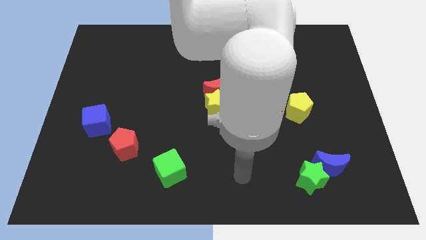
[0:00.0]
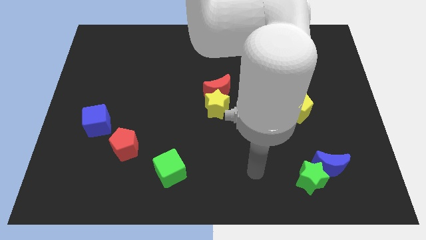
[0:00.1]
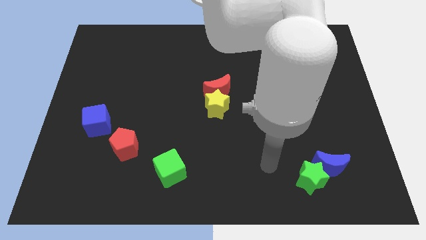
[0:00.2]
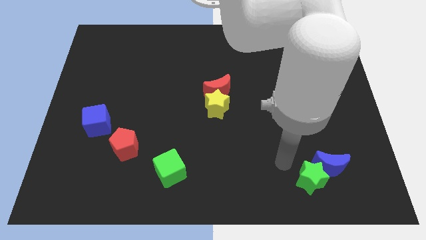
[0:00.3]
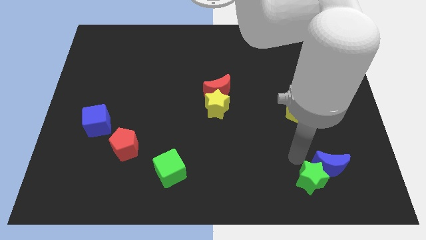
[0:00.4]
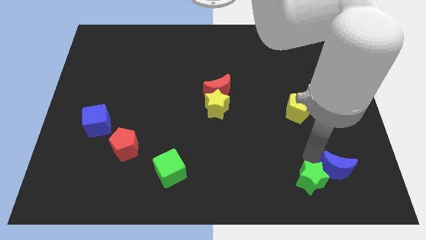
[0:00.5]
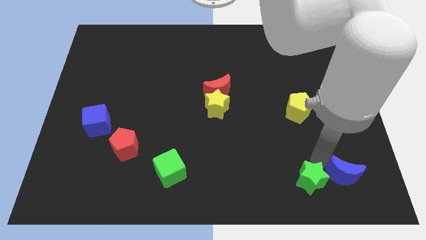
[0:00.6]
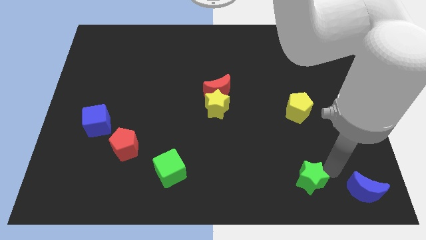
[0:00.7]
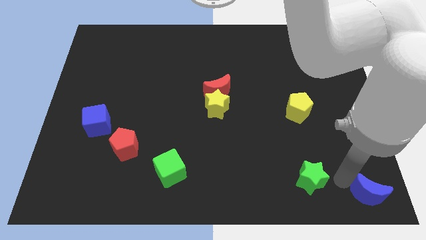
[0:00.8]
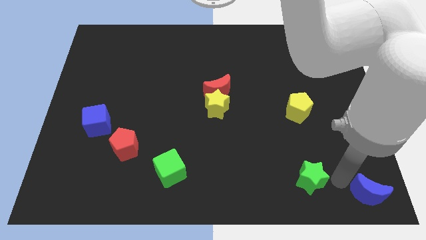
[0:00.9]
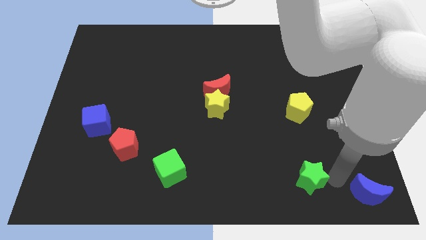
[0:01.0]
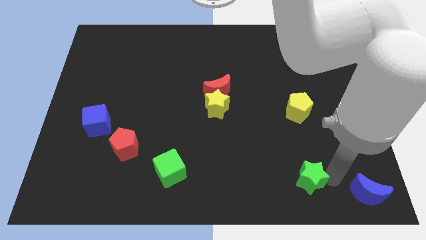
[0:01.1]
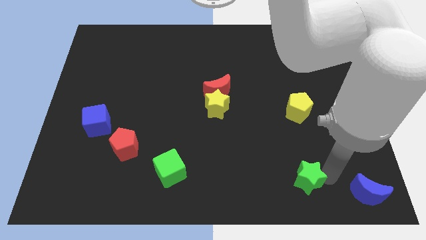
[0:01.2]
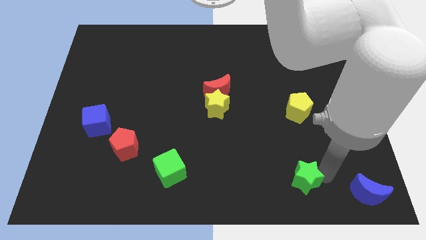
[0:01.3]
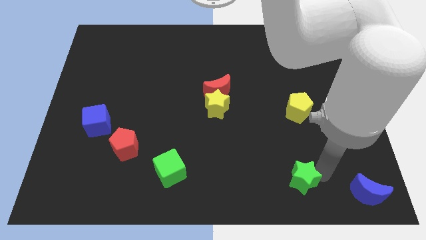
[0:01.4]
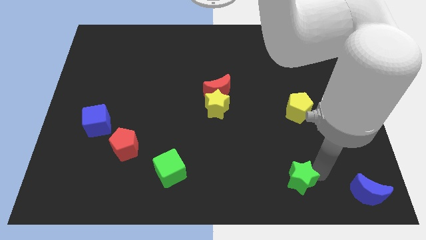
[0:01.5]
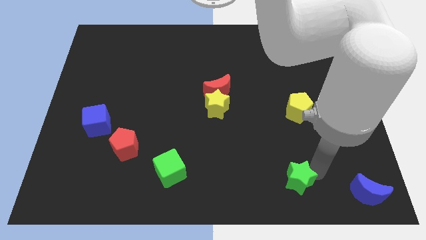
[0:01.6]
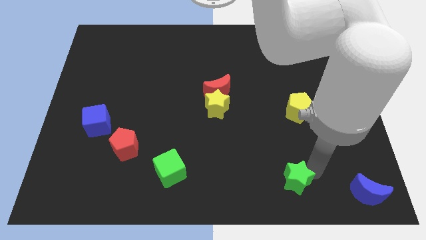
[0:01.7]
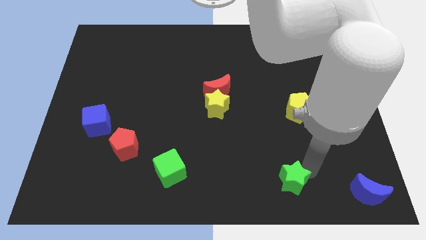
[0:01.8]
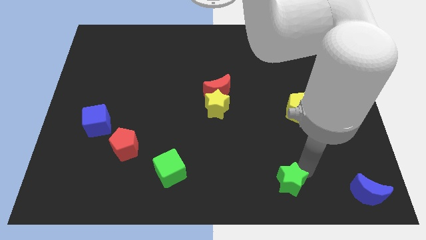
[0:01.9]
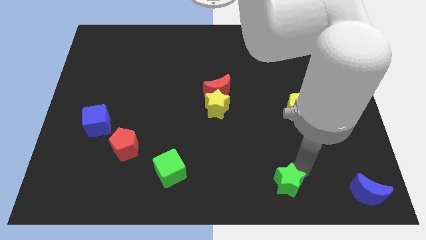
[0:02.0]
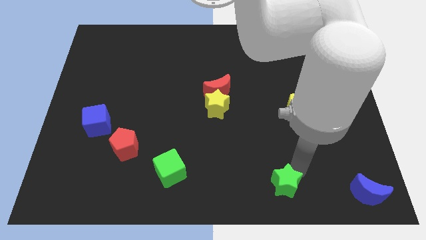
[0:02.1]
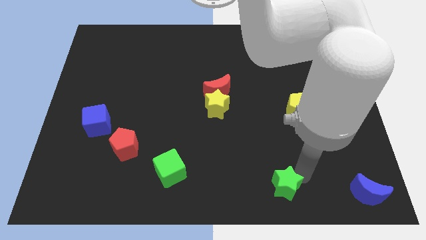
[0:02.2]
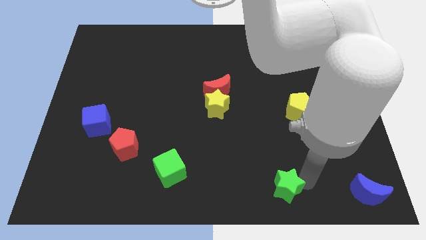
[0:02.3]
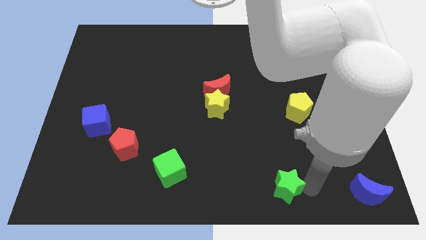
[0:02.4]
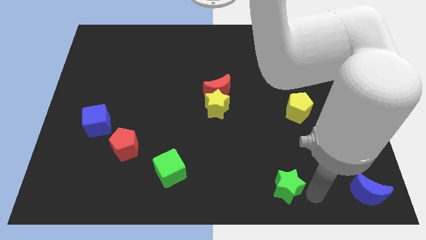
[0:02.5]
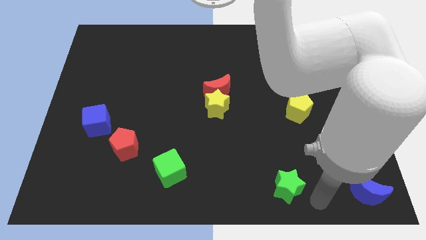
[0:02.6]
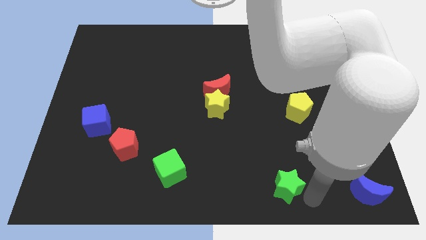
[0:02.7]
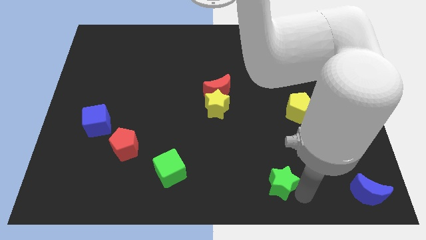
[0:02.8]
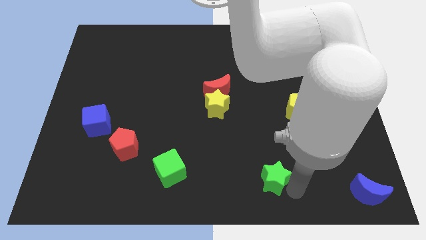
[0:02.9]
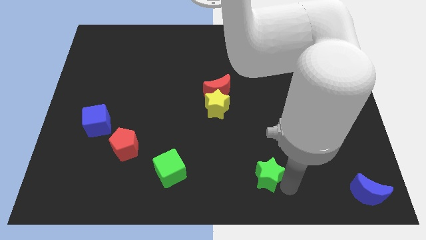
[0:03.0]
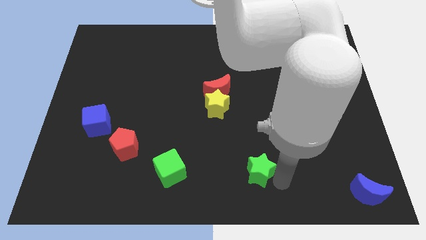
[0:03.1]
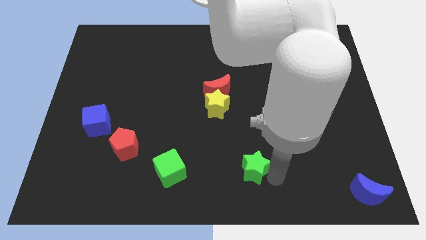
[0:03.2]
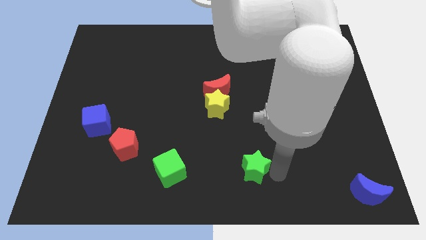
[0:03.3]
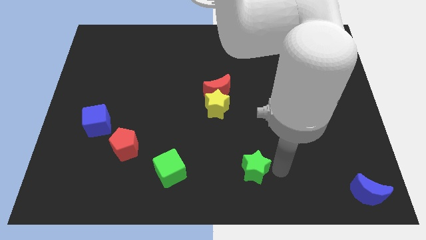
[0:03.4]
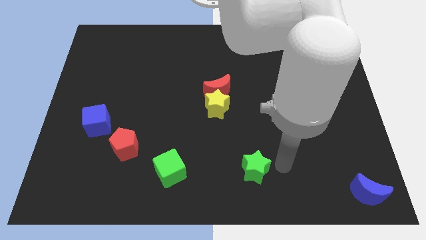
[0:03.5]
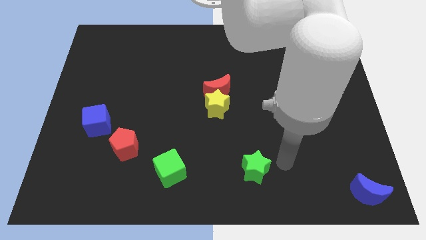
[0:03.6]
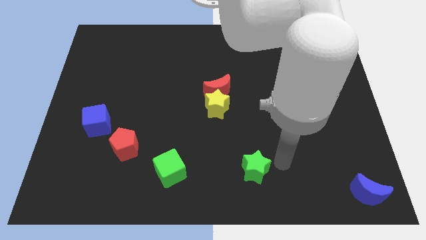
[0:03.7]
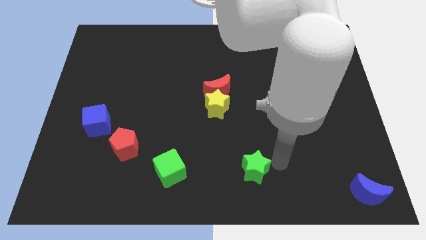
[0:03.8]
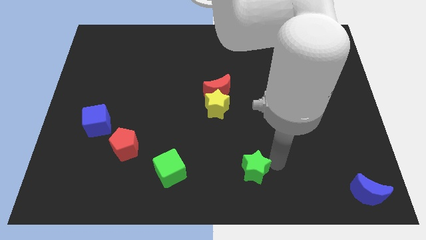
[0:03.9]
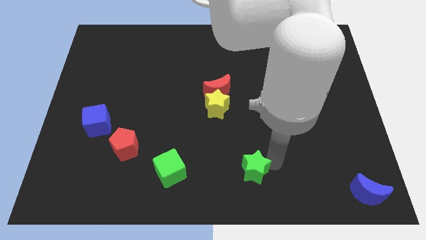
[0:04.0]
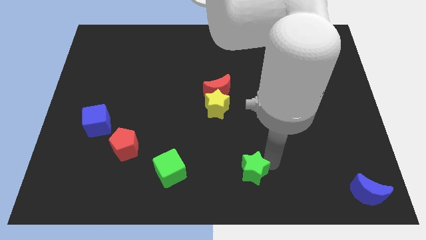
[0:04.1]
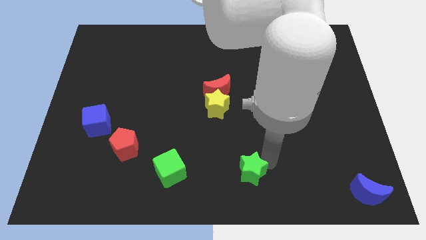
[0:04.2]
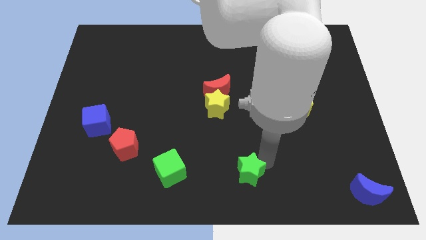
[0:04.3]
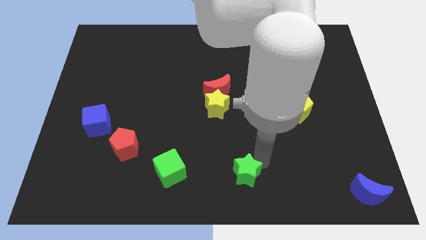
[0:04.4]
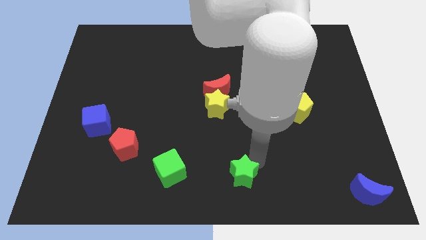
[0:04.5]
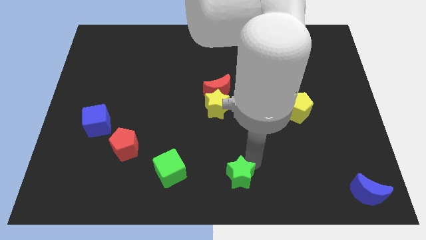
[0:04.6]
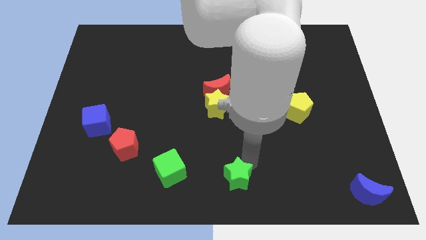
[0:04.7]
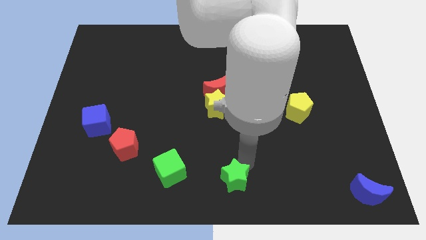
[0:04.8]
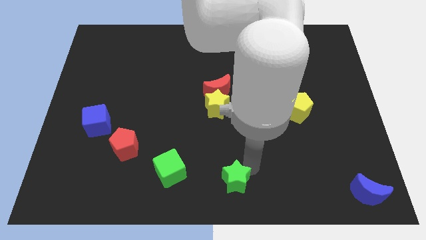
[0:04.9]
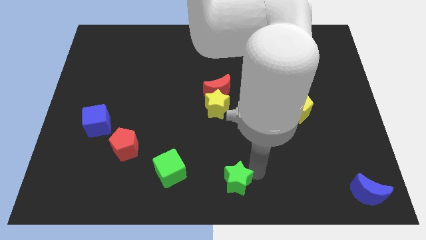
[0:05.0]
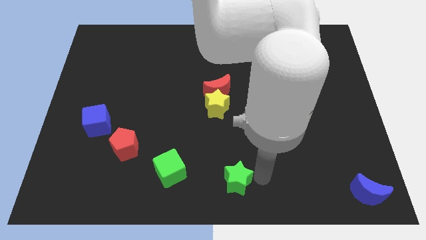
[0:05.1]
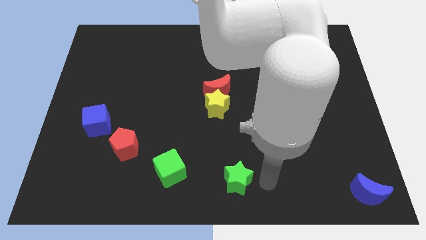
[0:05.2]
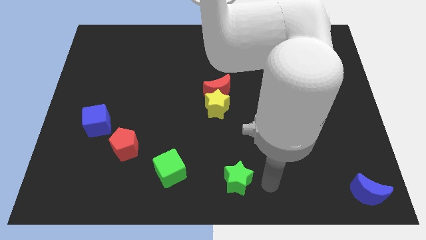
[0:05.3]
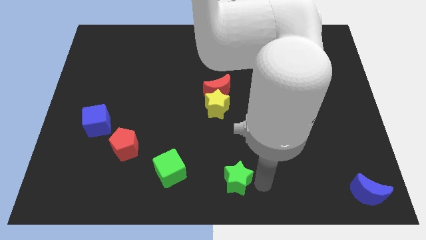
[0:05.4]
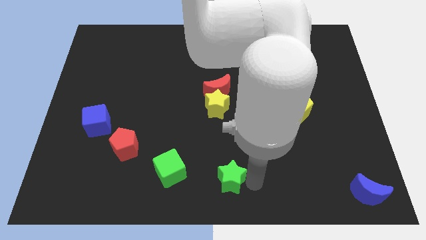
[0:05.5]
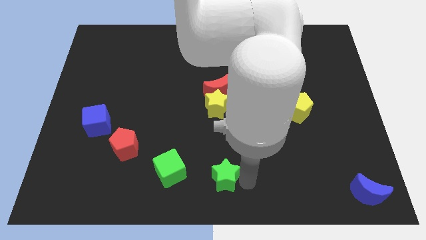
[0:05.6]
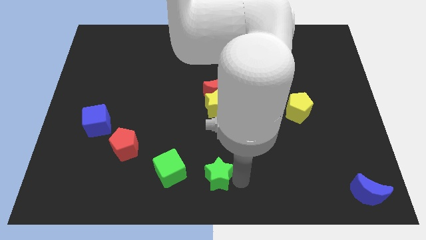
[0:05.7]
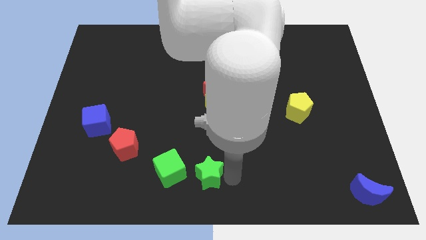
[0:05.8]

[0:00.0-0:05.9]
slide the green star left

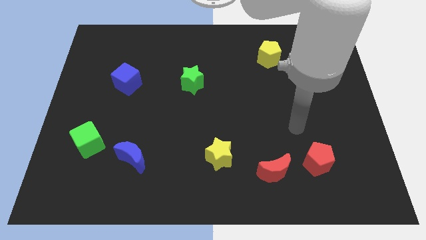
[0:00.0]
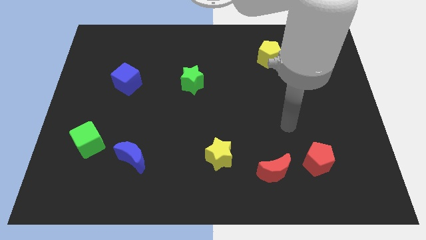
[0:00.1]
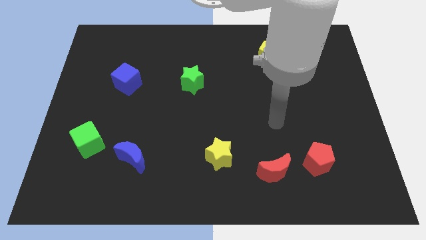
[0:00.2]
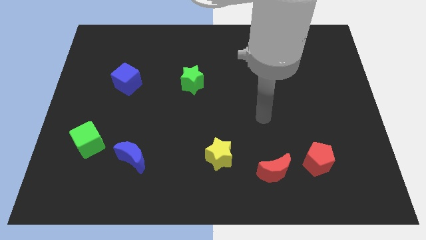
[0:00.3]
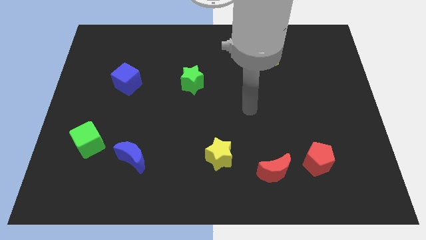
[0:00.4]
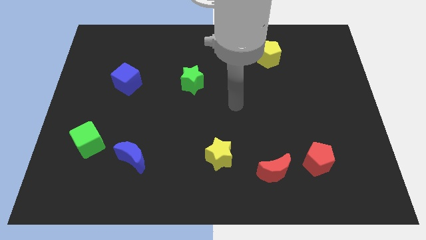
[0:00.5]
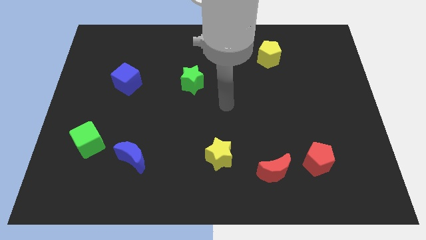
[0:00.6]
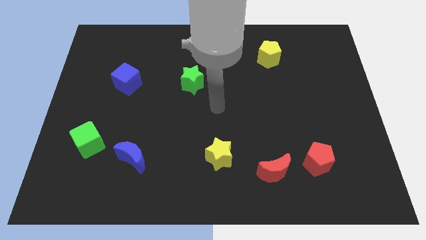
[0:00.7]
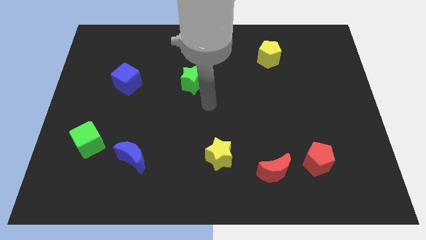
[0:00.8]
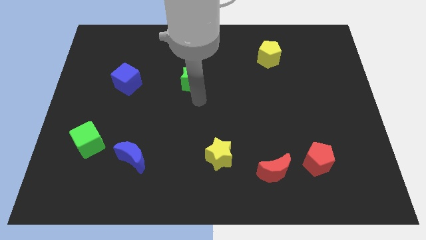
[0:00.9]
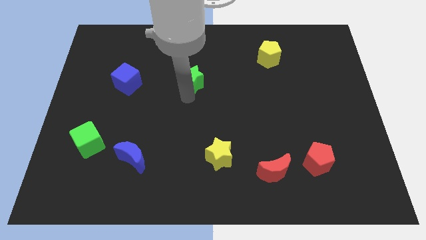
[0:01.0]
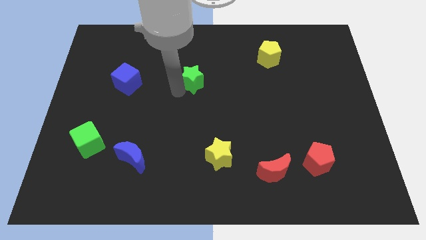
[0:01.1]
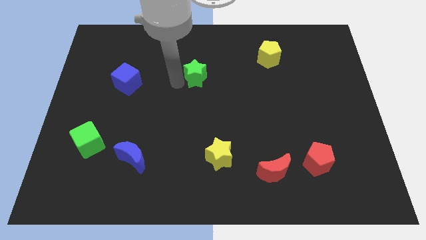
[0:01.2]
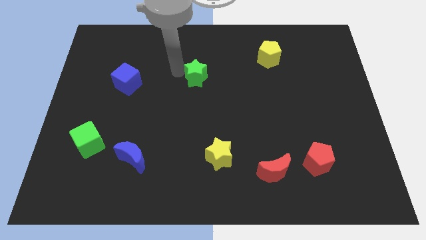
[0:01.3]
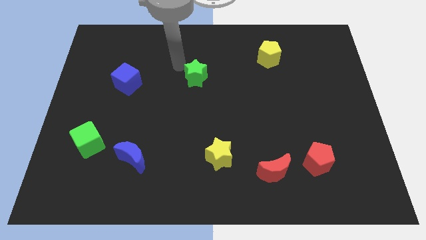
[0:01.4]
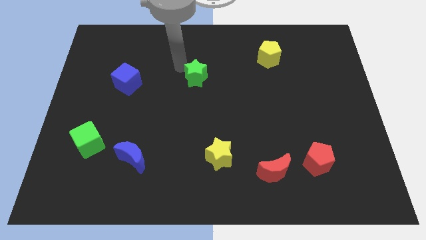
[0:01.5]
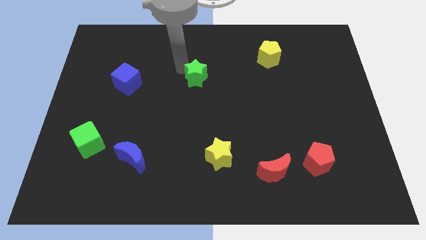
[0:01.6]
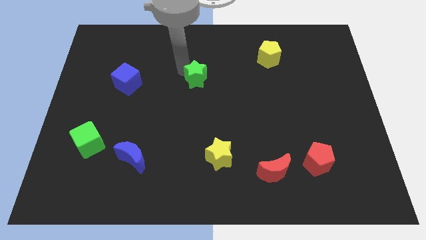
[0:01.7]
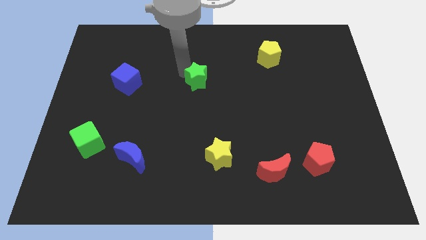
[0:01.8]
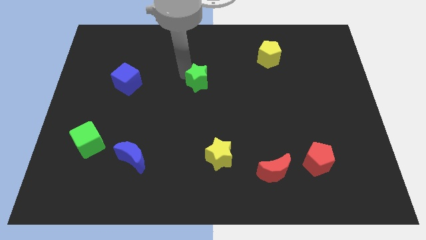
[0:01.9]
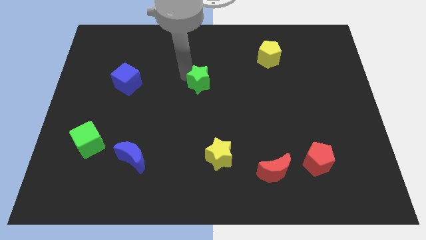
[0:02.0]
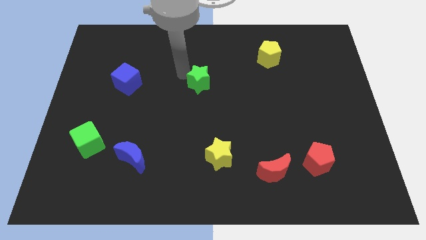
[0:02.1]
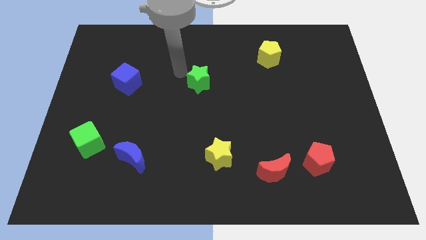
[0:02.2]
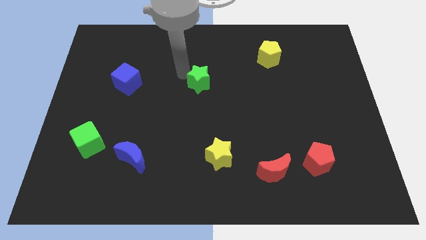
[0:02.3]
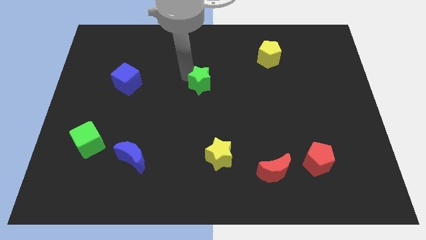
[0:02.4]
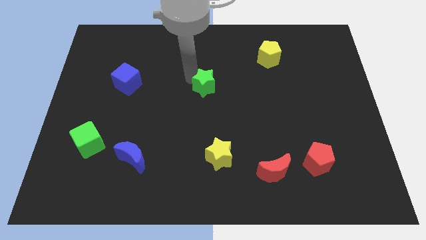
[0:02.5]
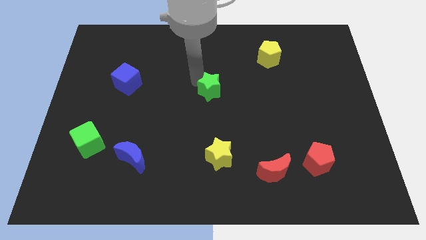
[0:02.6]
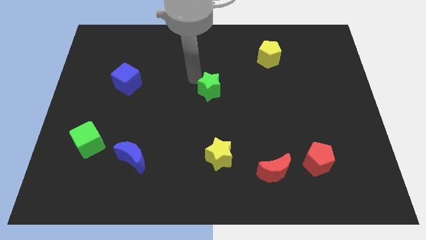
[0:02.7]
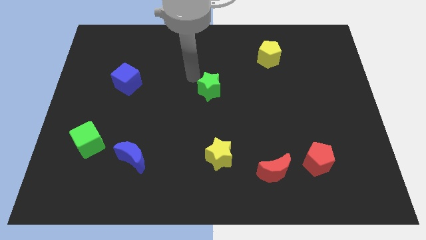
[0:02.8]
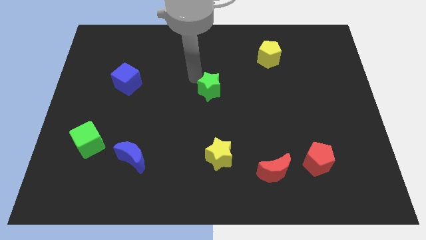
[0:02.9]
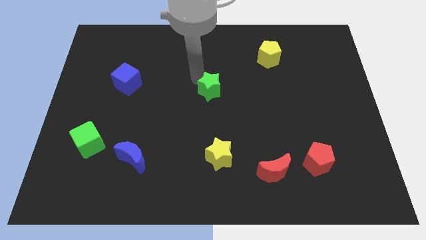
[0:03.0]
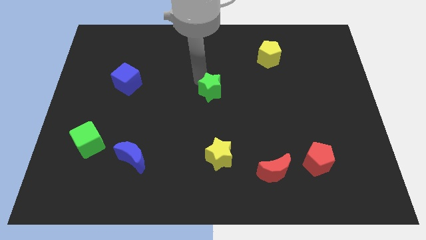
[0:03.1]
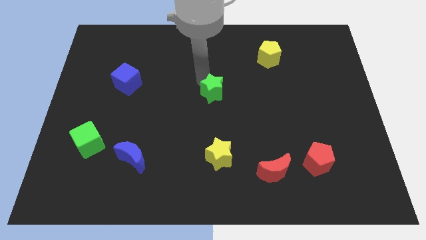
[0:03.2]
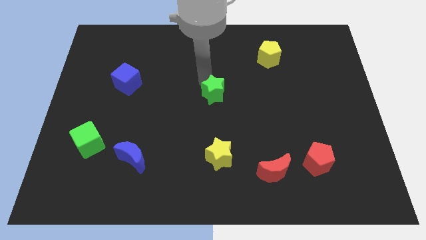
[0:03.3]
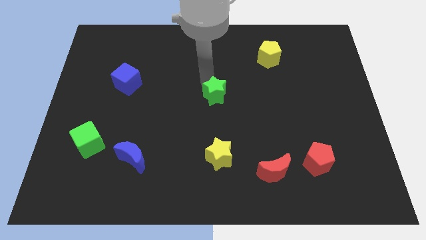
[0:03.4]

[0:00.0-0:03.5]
move the green star downwards and then to the right a bit
